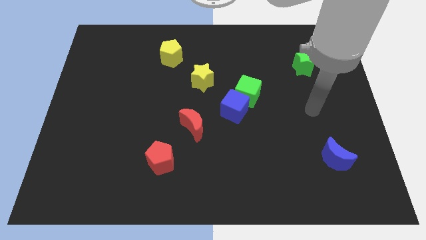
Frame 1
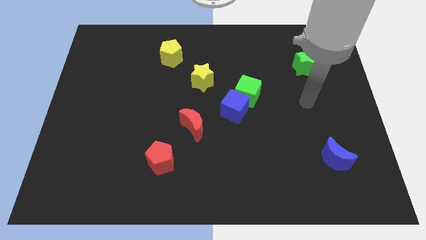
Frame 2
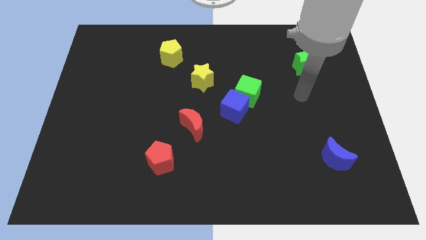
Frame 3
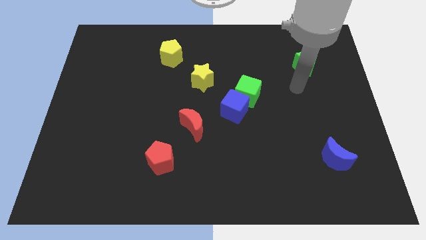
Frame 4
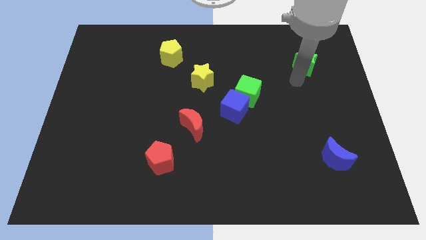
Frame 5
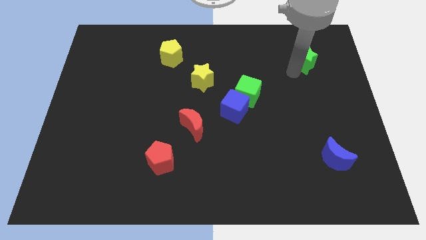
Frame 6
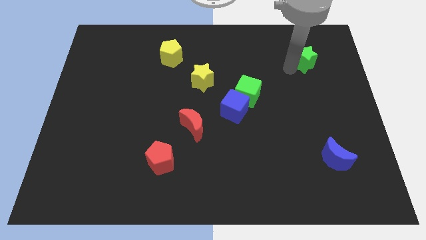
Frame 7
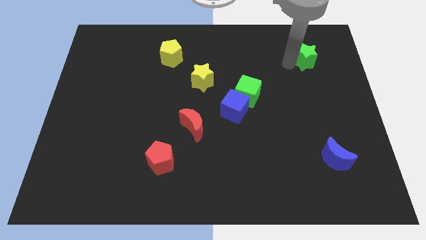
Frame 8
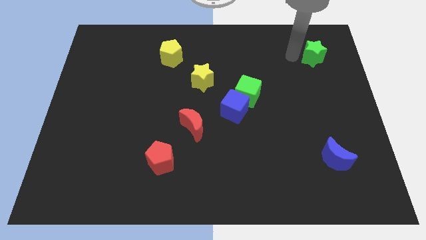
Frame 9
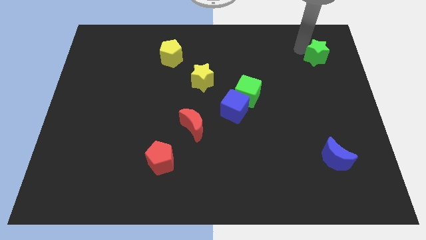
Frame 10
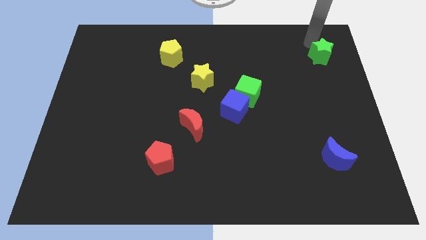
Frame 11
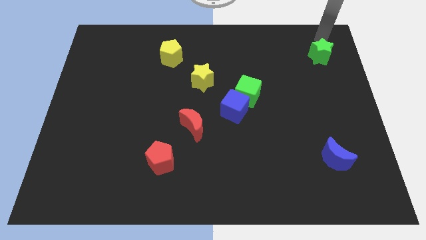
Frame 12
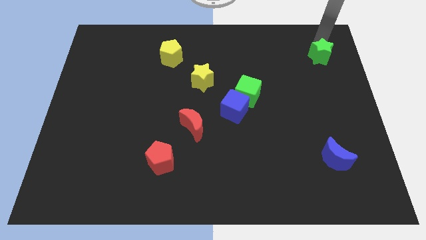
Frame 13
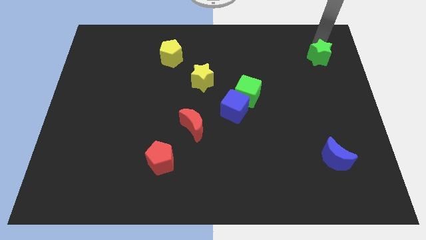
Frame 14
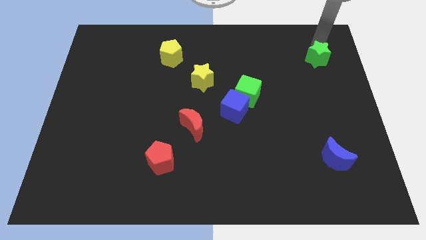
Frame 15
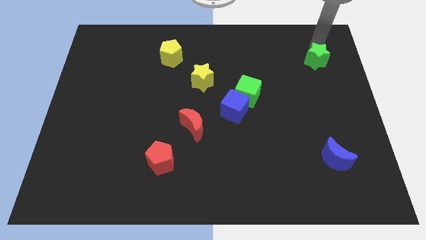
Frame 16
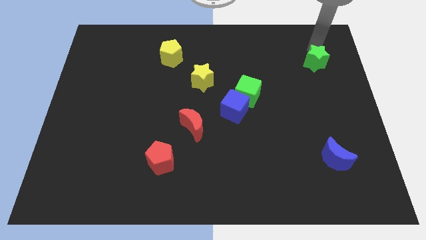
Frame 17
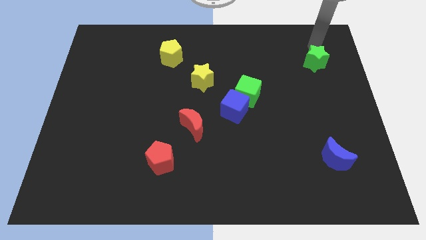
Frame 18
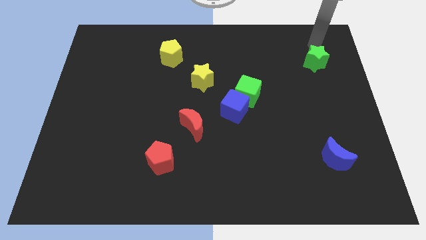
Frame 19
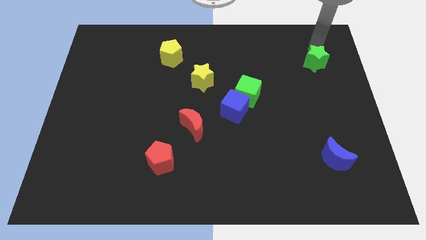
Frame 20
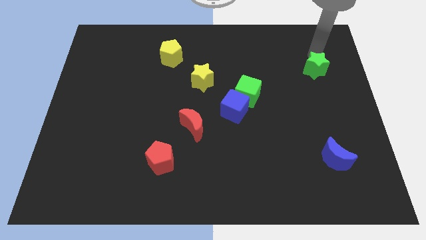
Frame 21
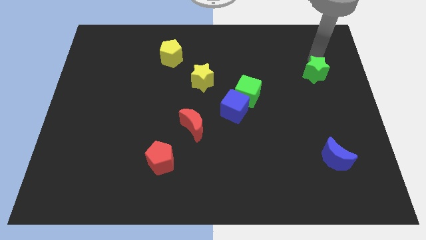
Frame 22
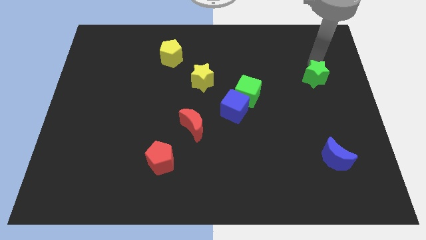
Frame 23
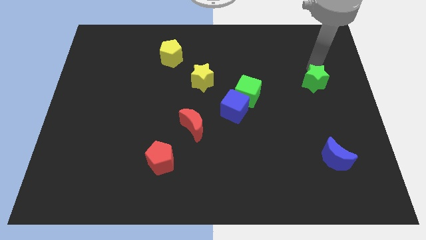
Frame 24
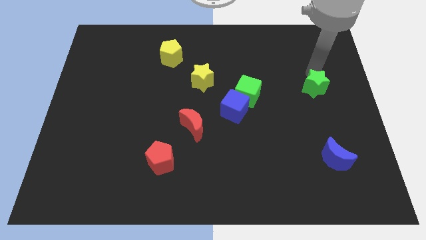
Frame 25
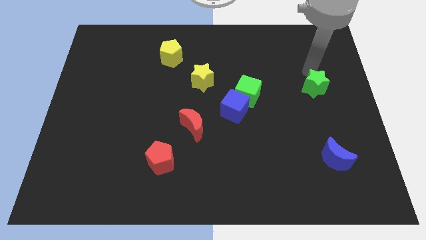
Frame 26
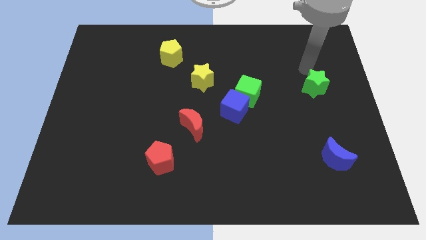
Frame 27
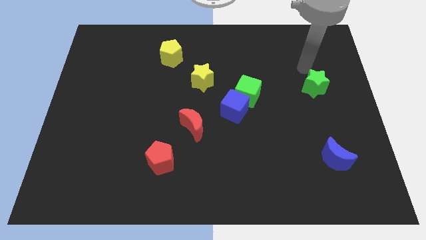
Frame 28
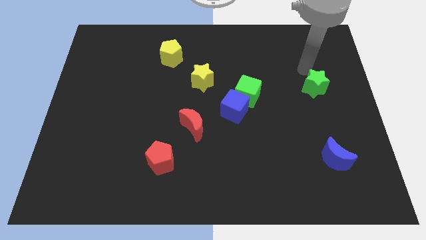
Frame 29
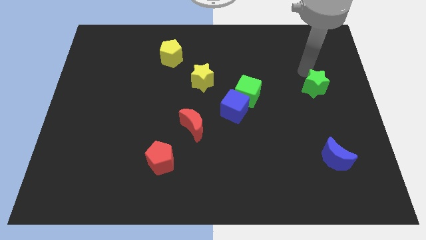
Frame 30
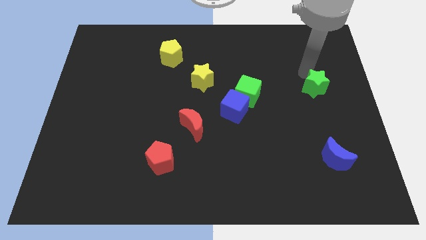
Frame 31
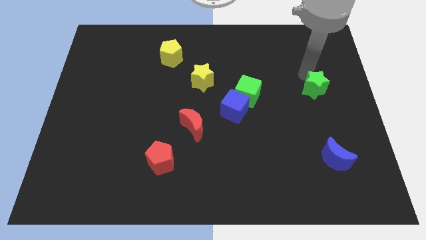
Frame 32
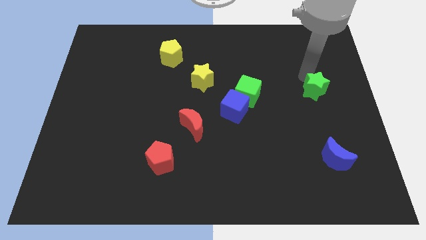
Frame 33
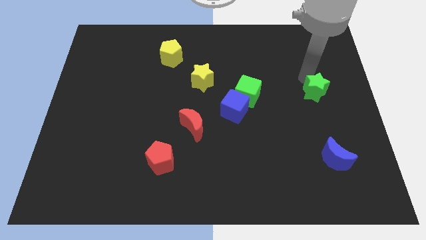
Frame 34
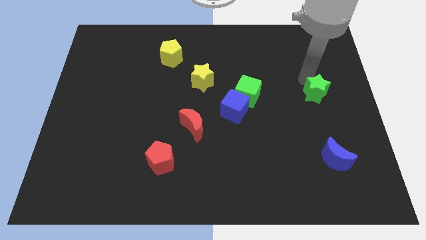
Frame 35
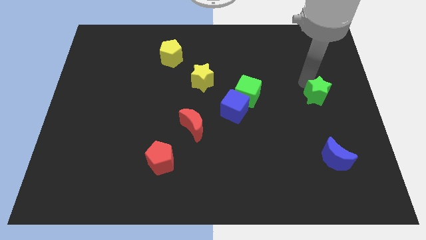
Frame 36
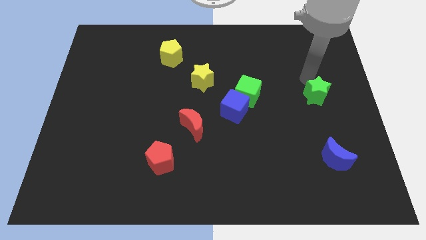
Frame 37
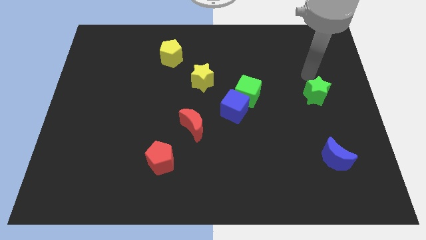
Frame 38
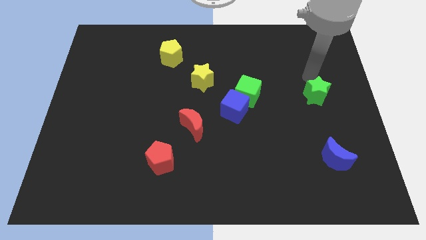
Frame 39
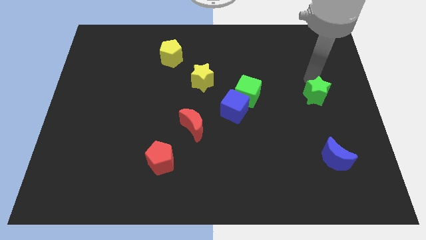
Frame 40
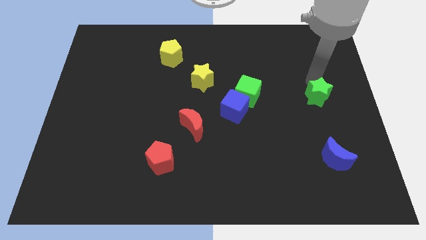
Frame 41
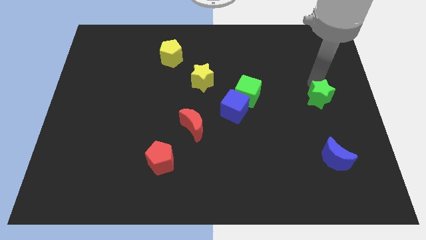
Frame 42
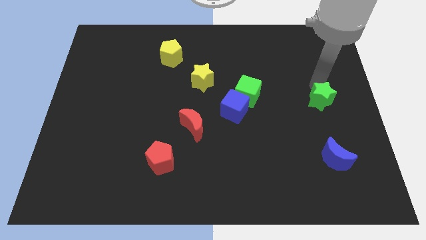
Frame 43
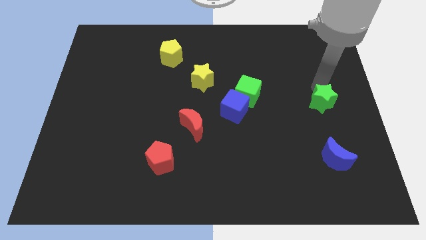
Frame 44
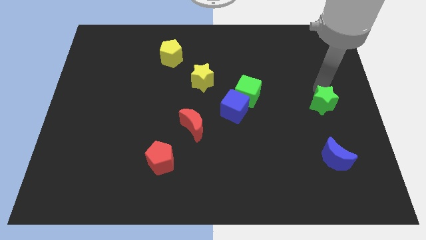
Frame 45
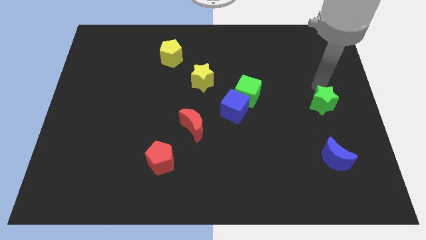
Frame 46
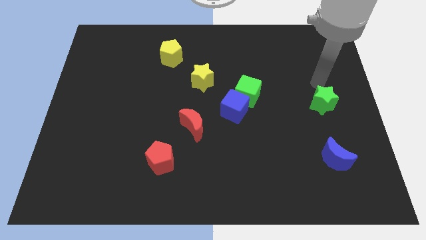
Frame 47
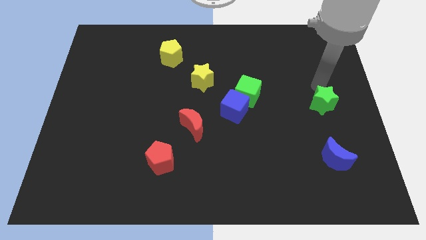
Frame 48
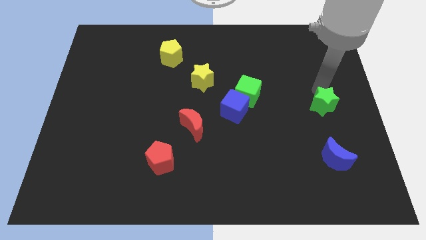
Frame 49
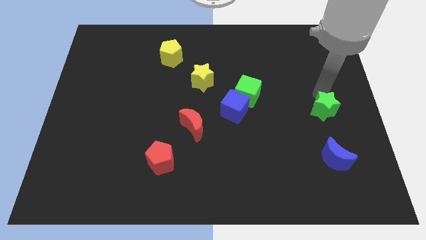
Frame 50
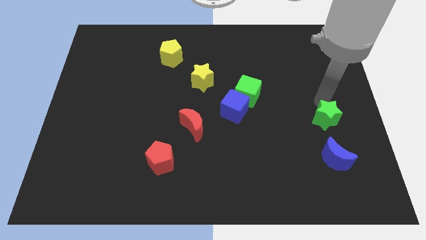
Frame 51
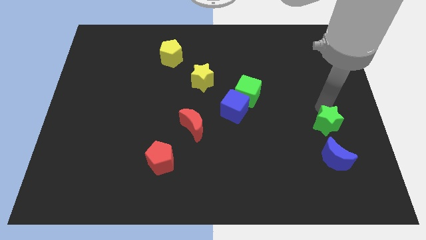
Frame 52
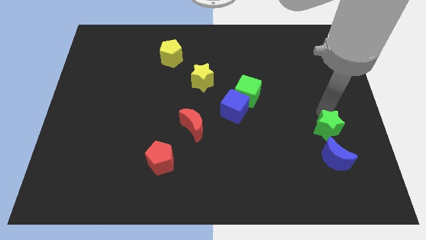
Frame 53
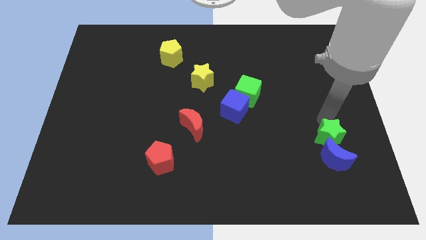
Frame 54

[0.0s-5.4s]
push the green star close to the blue moon

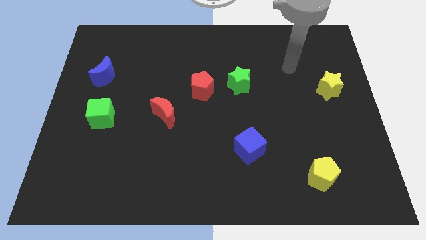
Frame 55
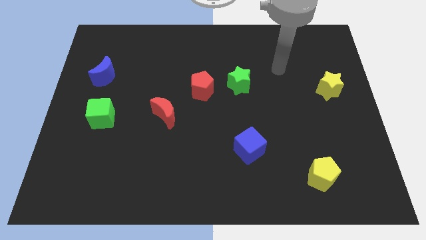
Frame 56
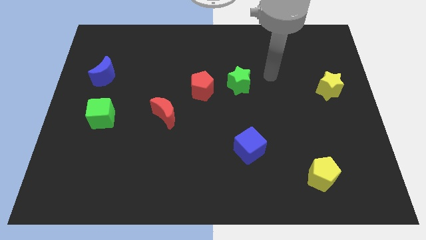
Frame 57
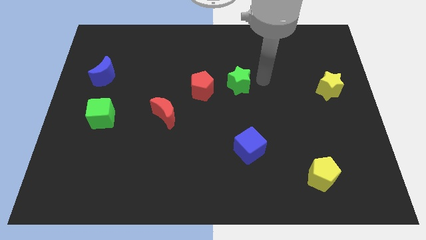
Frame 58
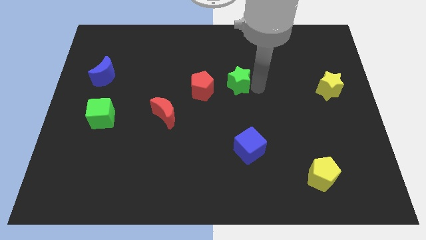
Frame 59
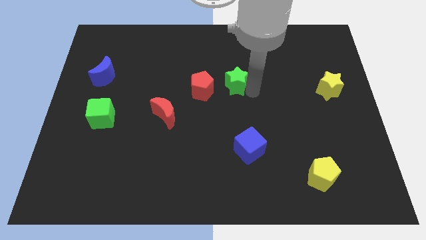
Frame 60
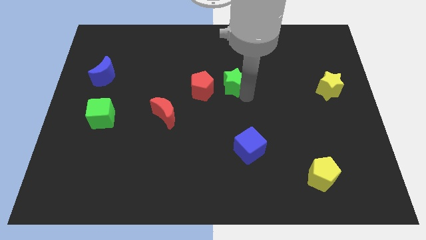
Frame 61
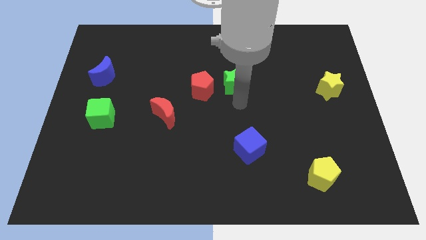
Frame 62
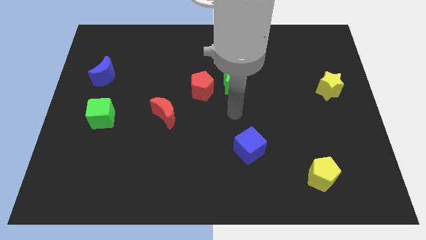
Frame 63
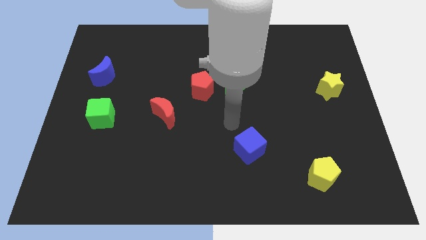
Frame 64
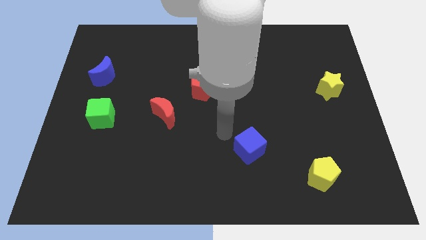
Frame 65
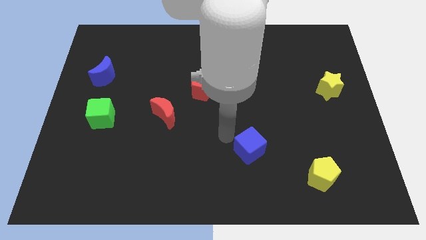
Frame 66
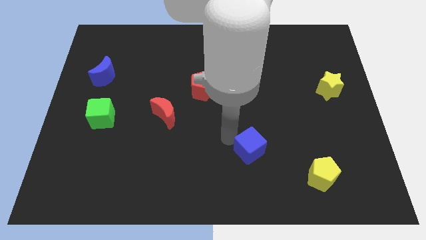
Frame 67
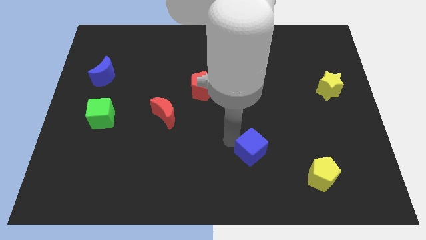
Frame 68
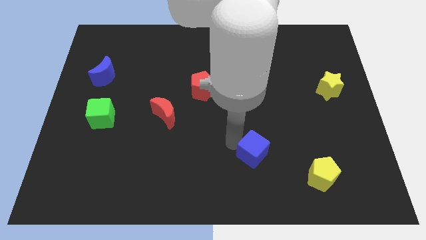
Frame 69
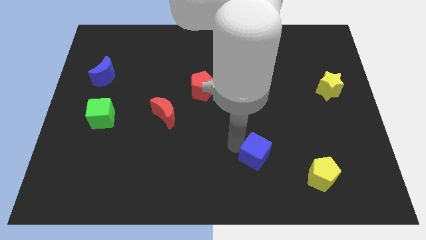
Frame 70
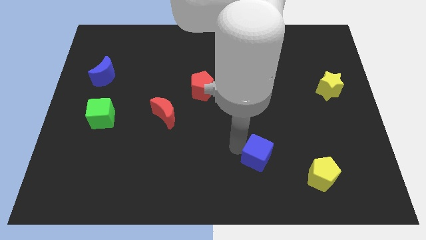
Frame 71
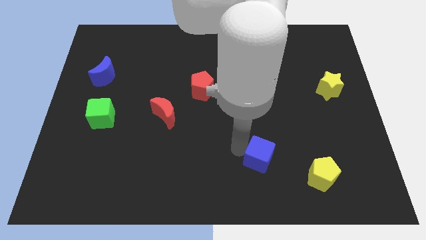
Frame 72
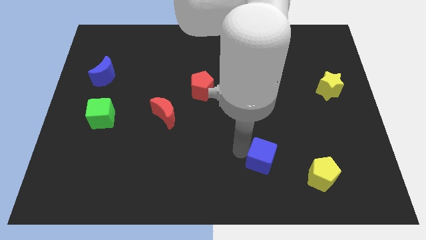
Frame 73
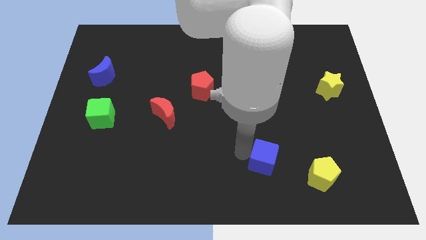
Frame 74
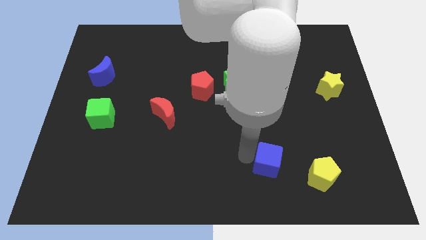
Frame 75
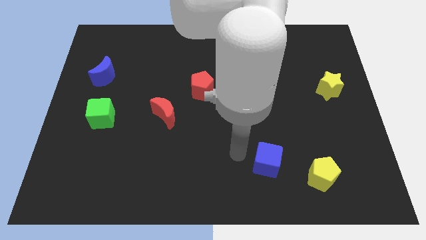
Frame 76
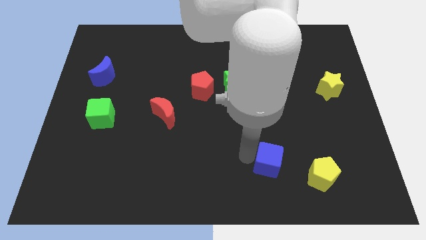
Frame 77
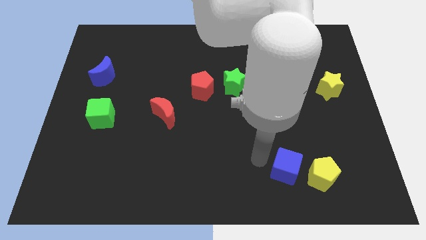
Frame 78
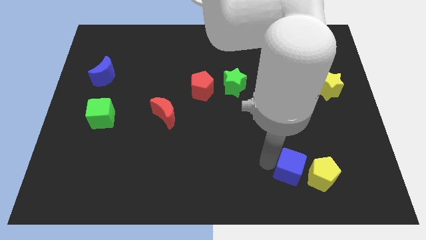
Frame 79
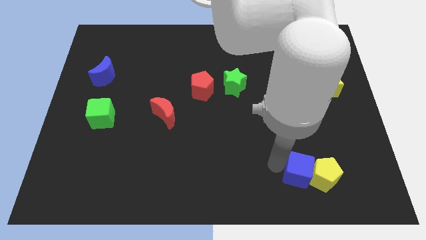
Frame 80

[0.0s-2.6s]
push the blue cube towards the yellow pentagon
